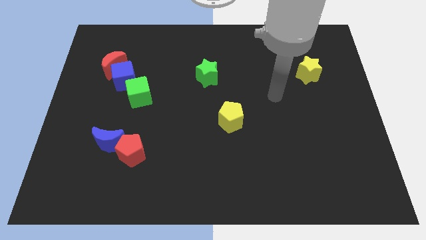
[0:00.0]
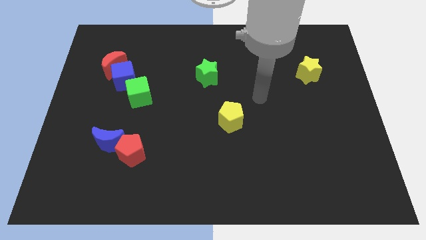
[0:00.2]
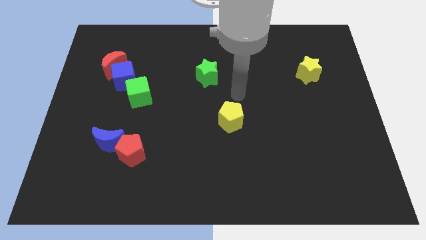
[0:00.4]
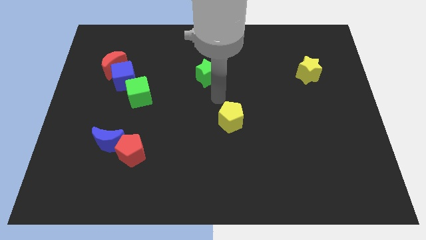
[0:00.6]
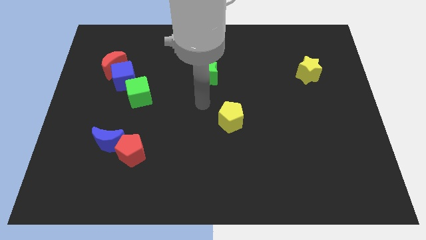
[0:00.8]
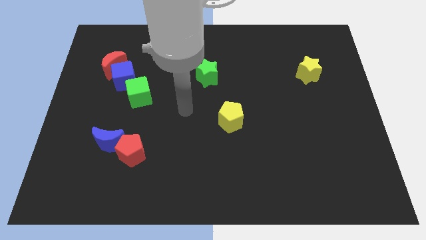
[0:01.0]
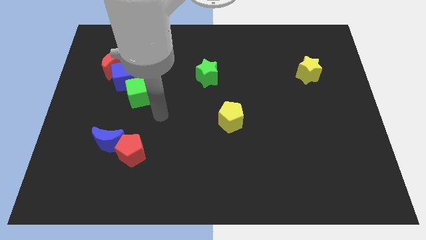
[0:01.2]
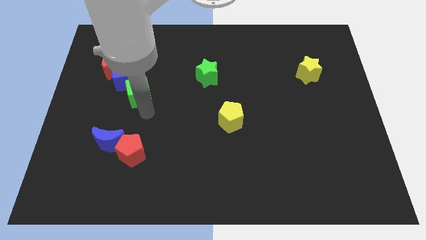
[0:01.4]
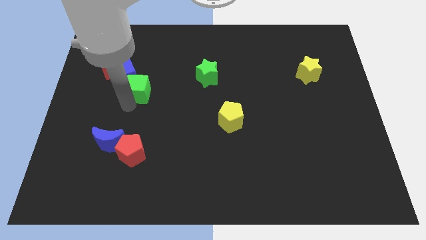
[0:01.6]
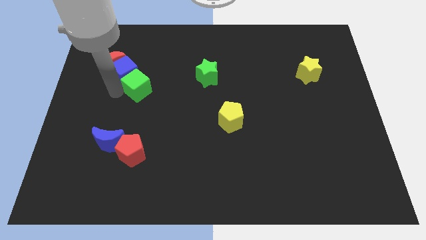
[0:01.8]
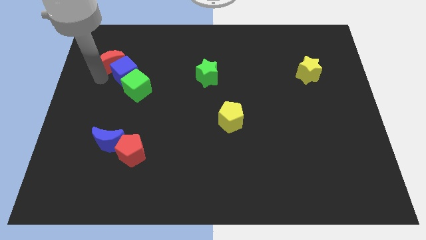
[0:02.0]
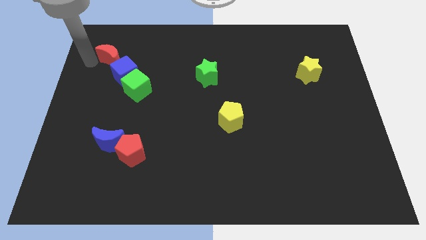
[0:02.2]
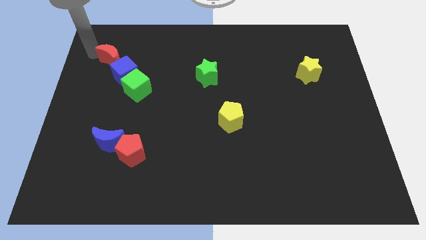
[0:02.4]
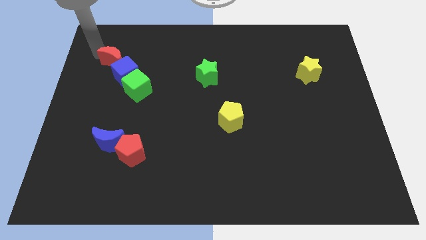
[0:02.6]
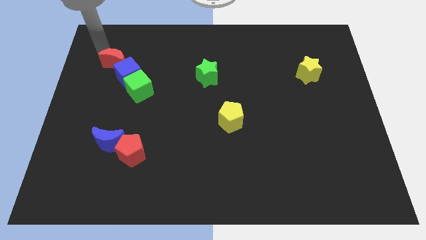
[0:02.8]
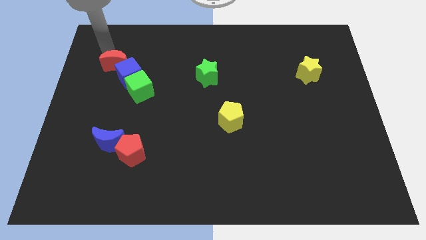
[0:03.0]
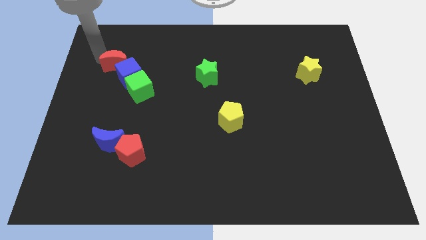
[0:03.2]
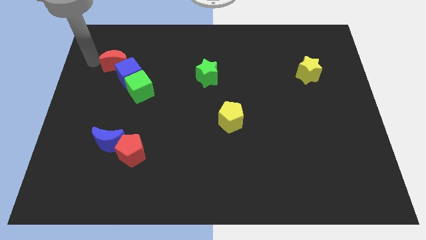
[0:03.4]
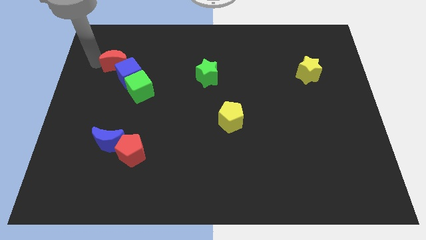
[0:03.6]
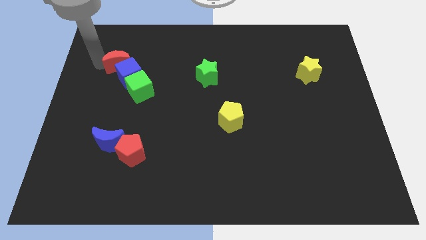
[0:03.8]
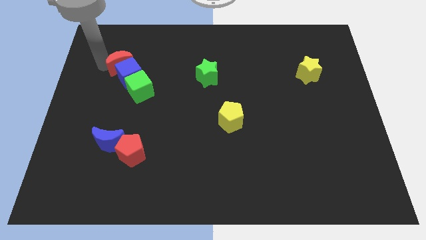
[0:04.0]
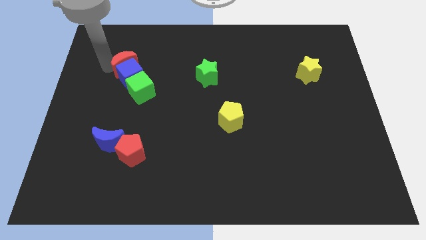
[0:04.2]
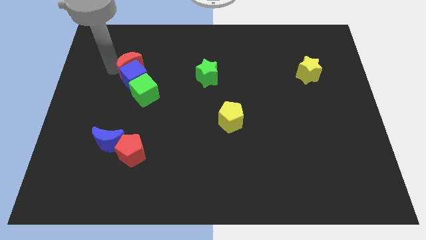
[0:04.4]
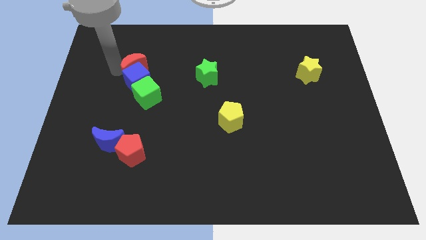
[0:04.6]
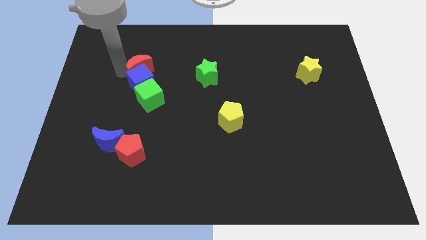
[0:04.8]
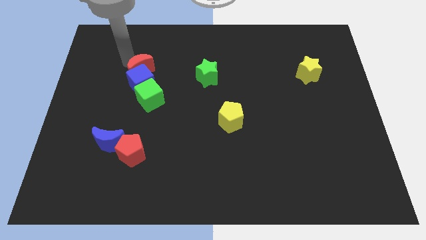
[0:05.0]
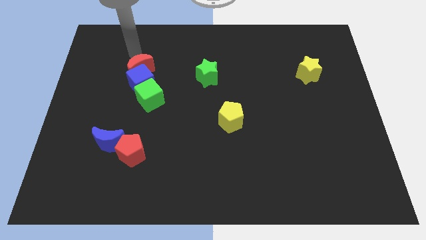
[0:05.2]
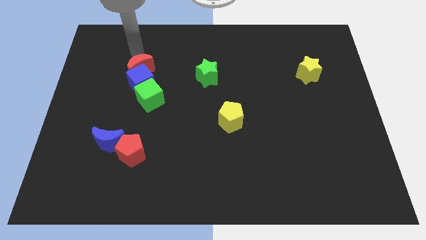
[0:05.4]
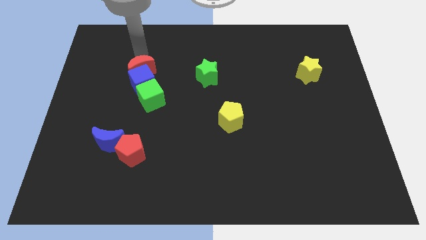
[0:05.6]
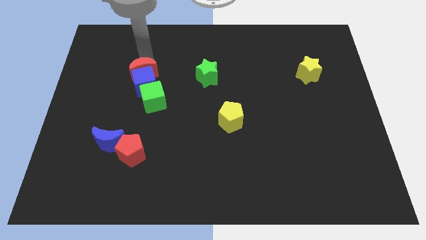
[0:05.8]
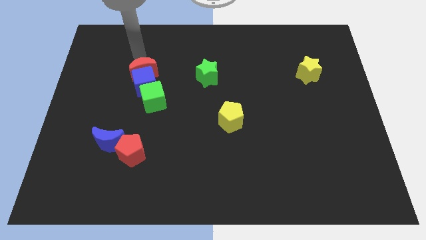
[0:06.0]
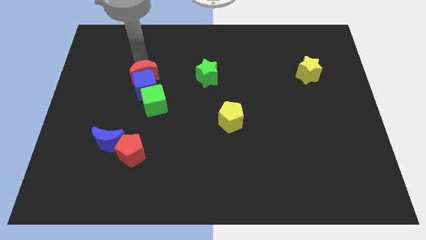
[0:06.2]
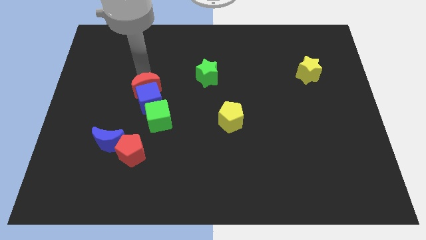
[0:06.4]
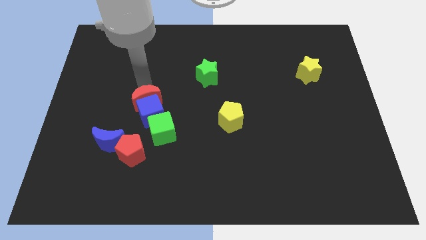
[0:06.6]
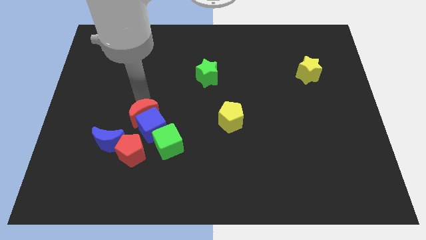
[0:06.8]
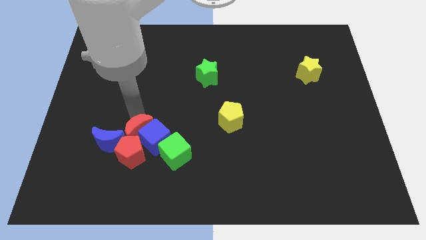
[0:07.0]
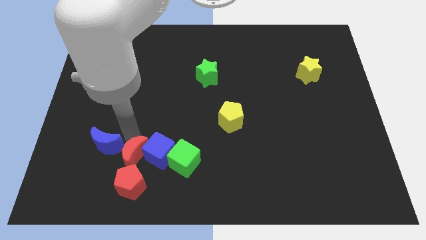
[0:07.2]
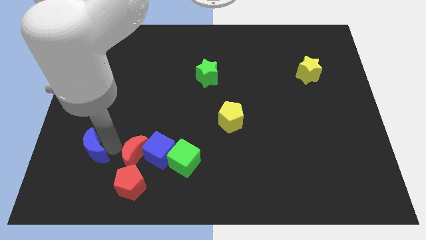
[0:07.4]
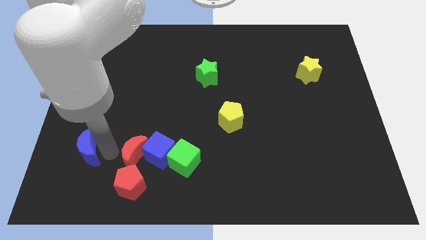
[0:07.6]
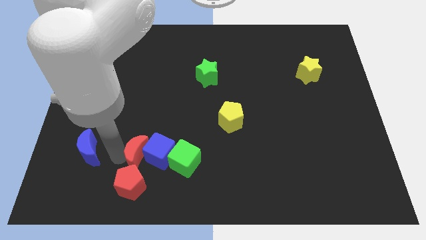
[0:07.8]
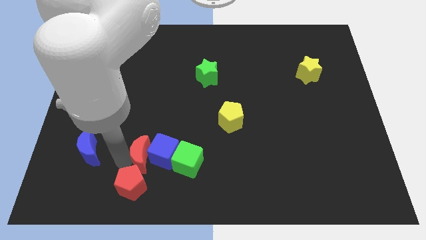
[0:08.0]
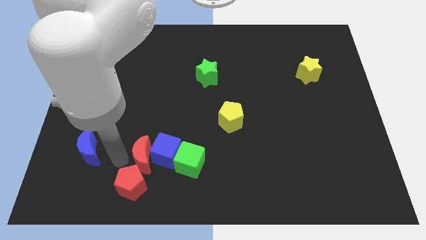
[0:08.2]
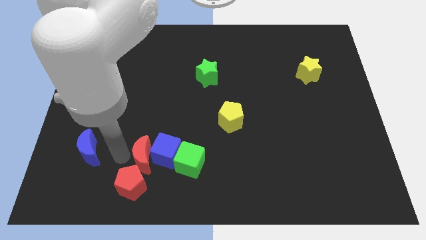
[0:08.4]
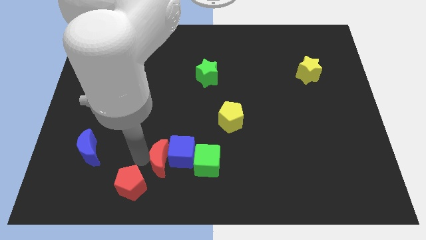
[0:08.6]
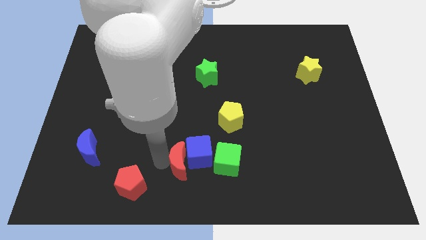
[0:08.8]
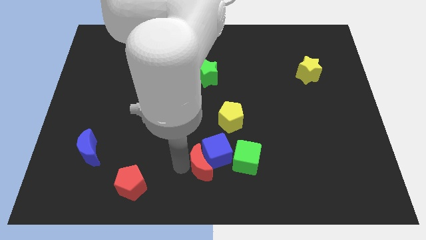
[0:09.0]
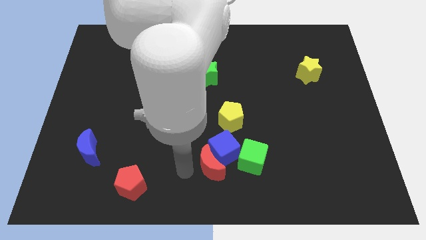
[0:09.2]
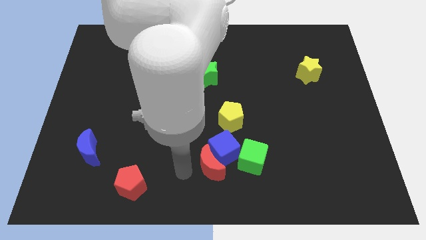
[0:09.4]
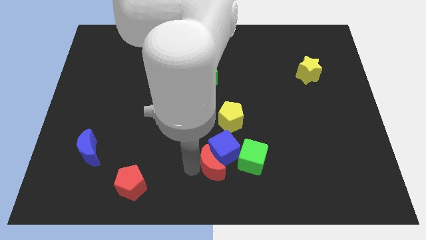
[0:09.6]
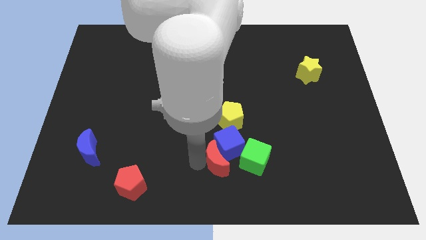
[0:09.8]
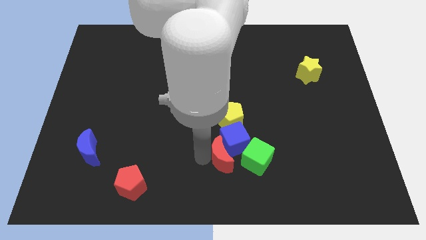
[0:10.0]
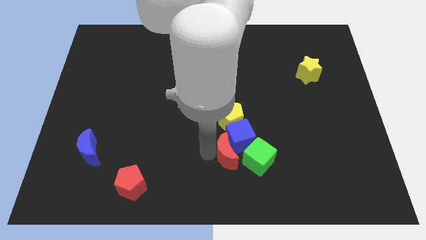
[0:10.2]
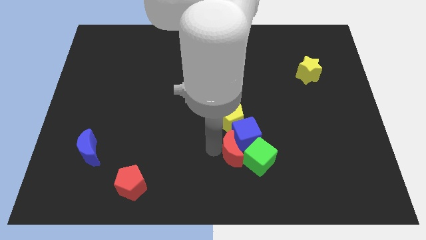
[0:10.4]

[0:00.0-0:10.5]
push the red moon to the green cube
